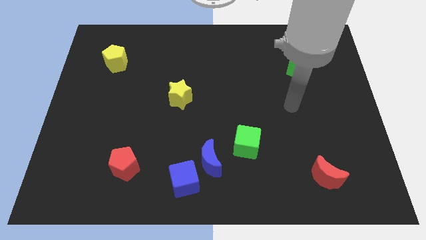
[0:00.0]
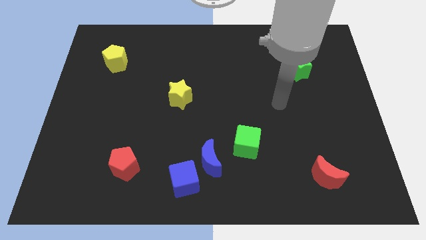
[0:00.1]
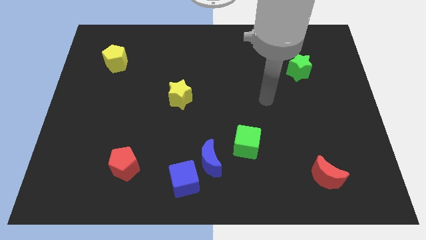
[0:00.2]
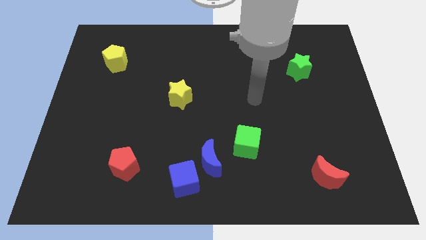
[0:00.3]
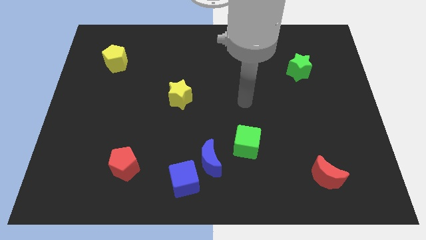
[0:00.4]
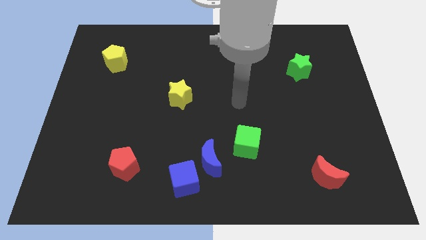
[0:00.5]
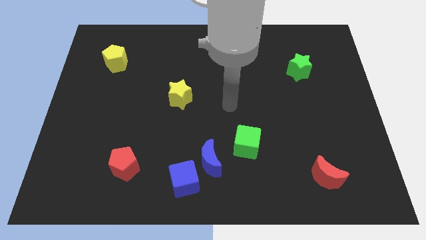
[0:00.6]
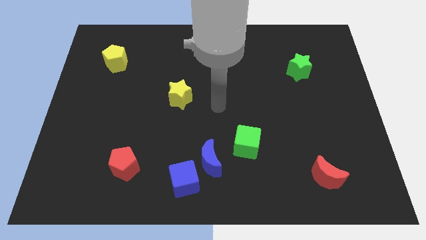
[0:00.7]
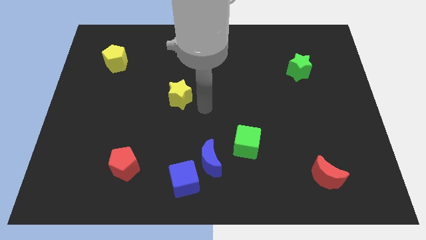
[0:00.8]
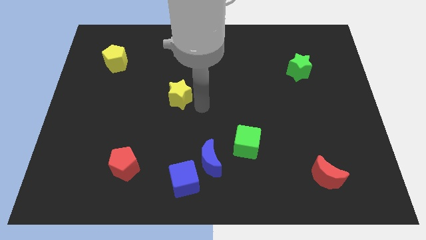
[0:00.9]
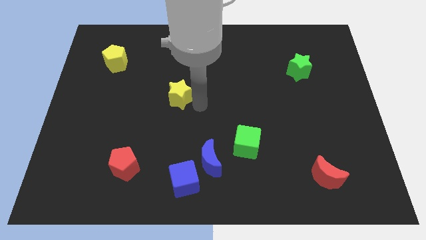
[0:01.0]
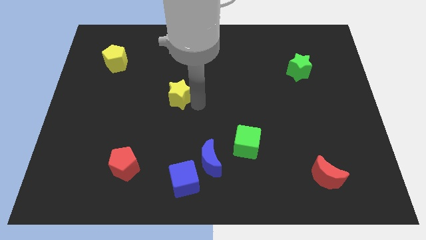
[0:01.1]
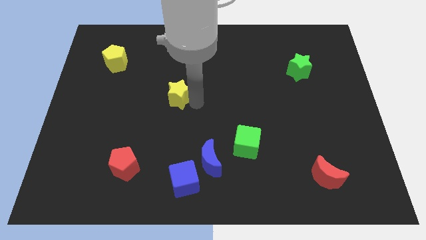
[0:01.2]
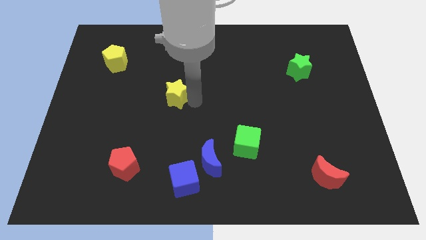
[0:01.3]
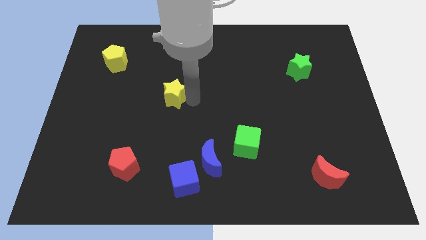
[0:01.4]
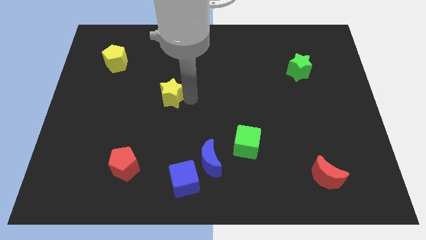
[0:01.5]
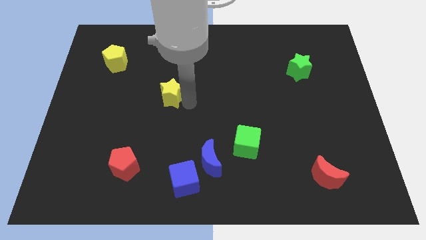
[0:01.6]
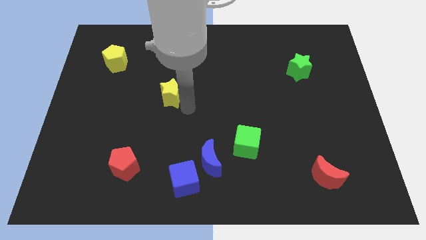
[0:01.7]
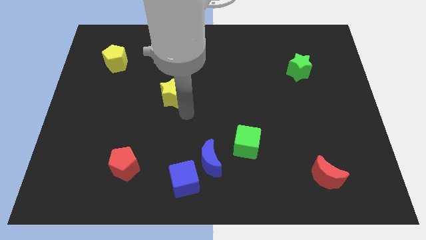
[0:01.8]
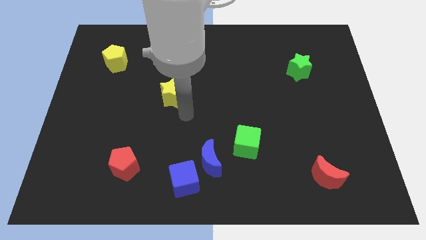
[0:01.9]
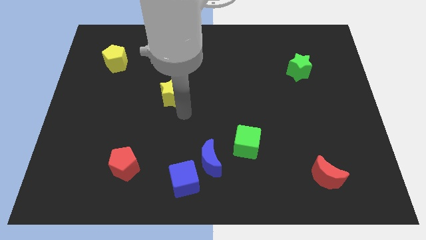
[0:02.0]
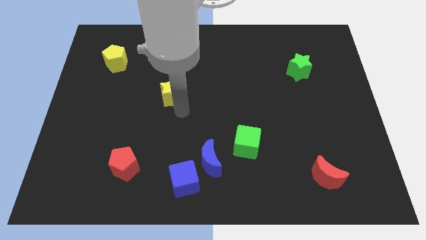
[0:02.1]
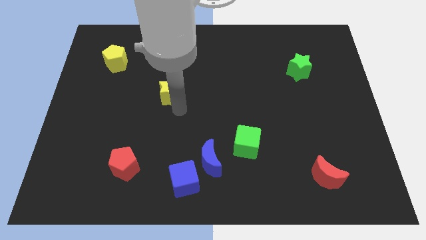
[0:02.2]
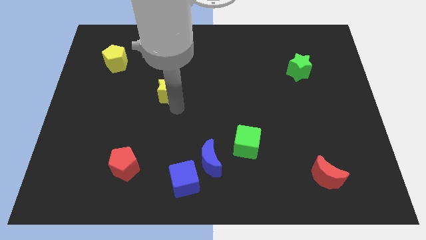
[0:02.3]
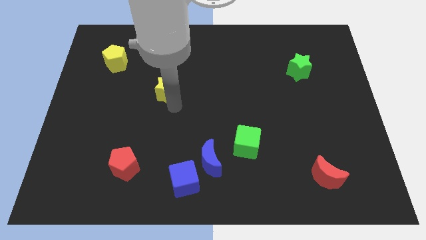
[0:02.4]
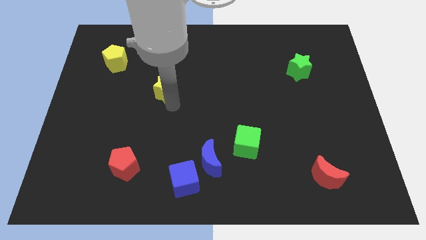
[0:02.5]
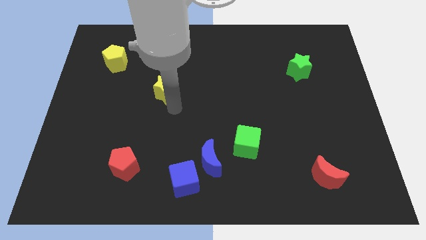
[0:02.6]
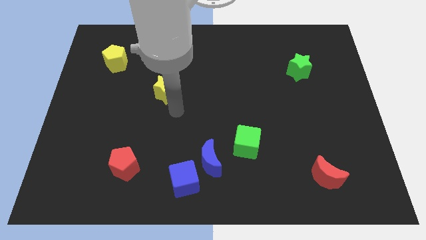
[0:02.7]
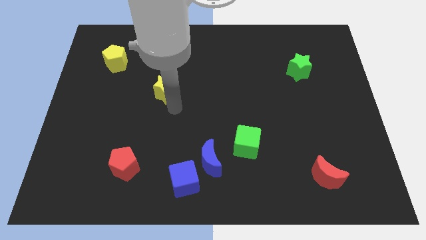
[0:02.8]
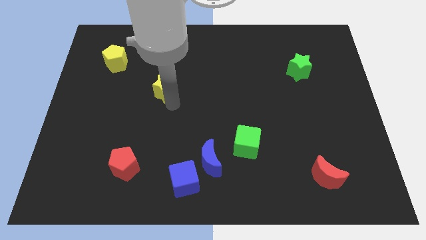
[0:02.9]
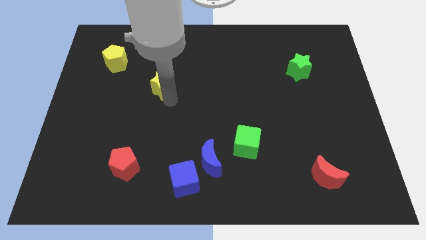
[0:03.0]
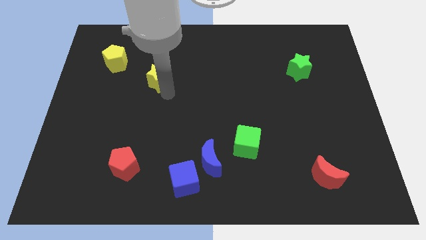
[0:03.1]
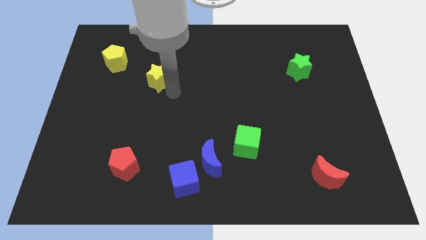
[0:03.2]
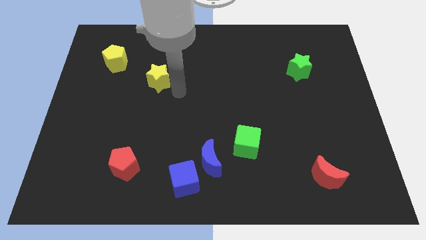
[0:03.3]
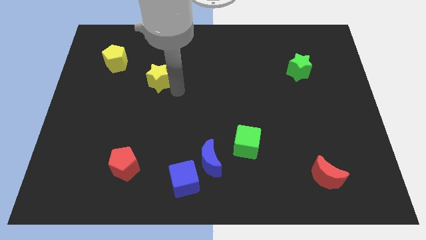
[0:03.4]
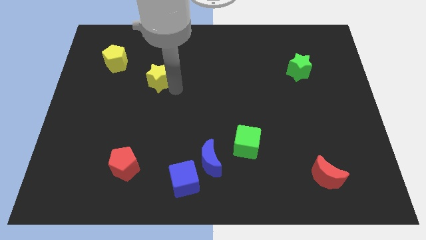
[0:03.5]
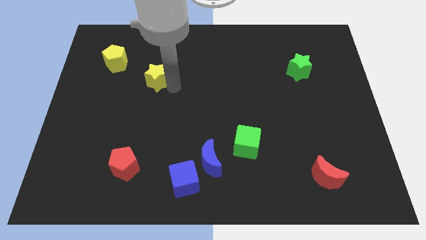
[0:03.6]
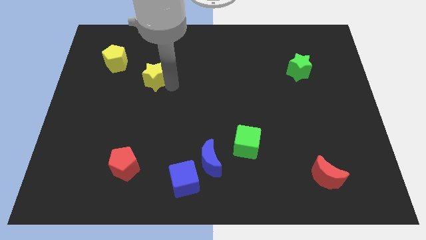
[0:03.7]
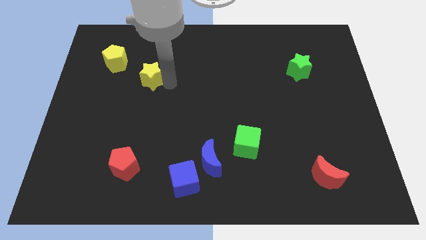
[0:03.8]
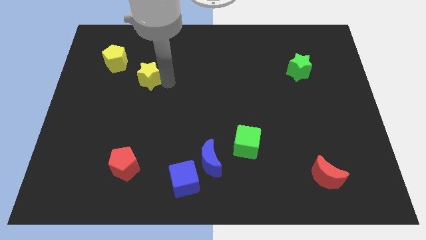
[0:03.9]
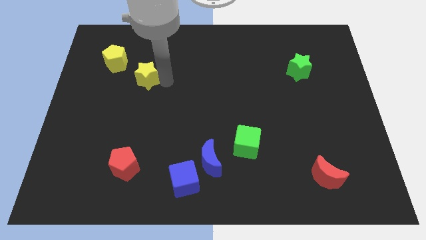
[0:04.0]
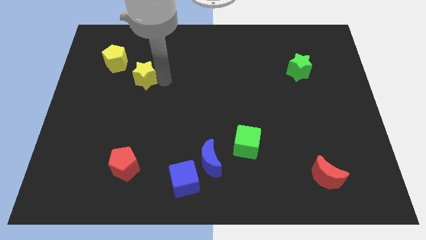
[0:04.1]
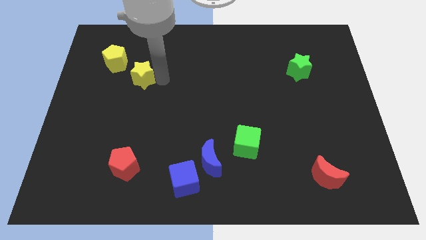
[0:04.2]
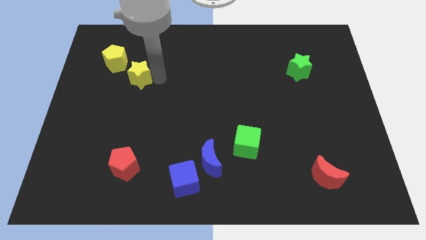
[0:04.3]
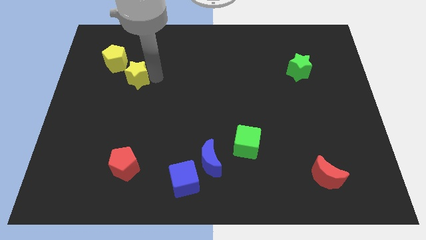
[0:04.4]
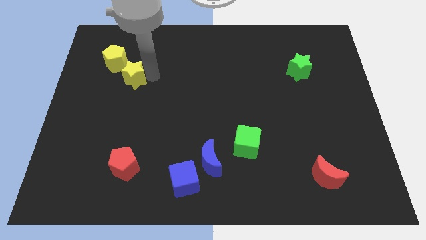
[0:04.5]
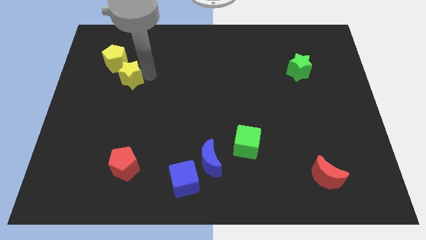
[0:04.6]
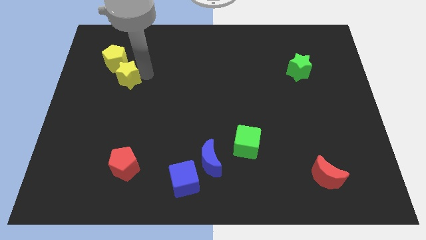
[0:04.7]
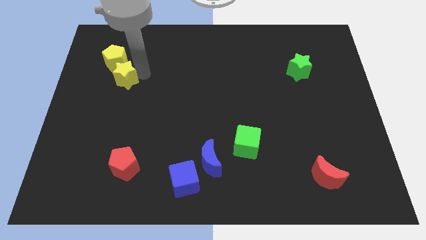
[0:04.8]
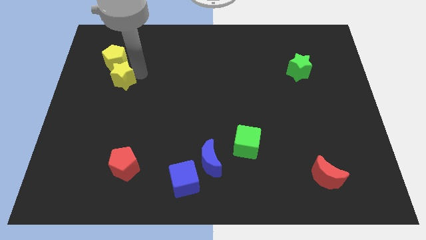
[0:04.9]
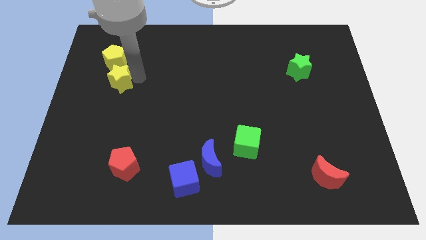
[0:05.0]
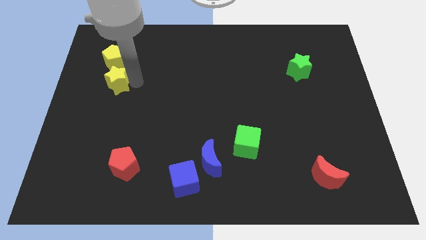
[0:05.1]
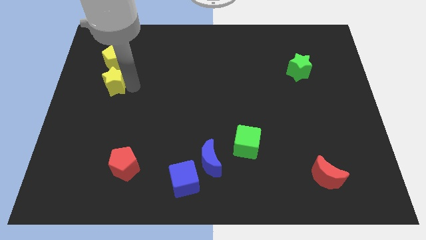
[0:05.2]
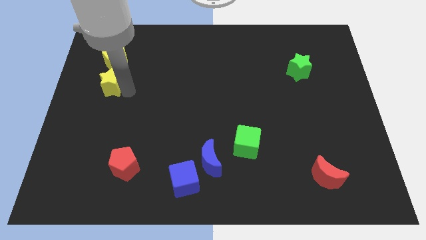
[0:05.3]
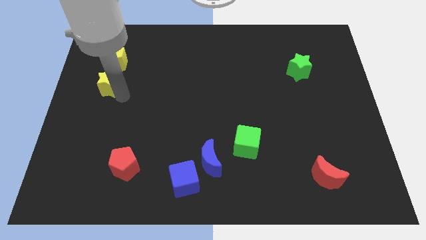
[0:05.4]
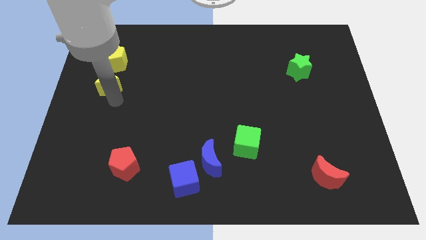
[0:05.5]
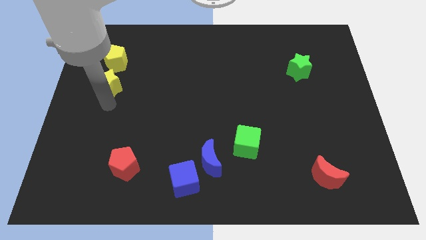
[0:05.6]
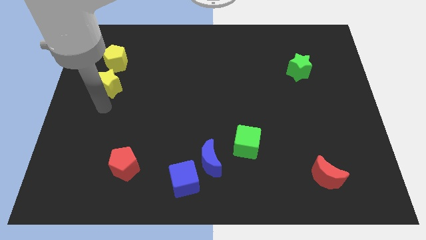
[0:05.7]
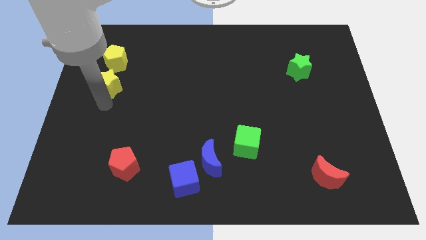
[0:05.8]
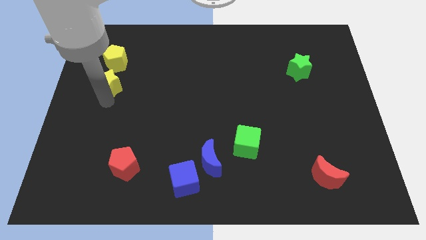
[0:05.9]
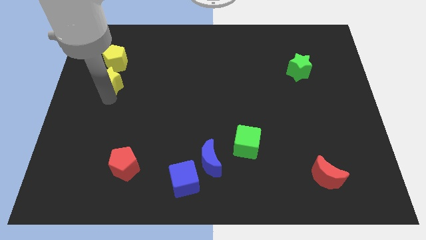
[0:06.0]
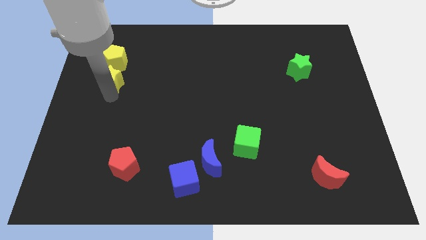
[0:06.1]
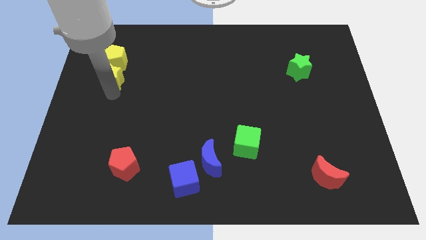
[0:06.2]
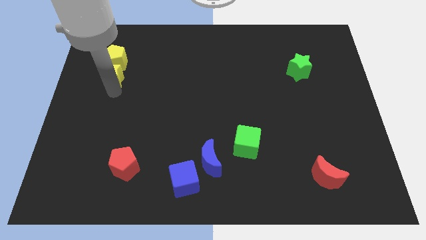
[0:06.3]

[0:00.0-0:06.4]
slide the yellow star next to the yellow pentagon

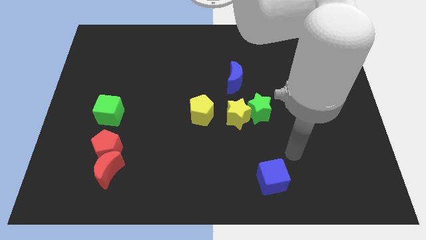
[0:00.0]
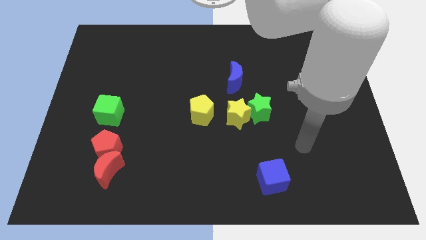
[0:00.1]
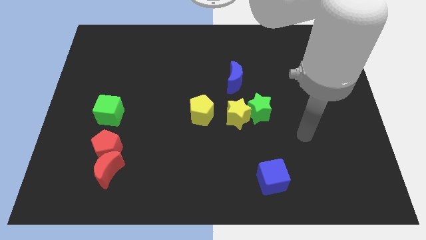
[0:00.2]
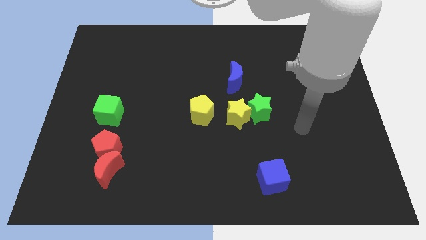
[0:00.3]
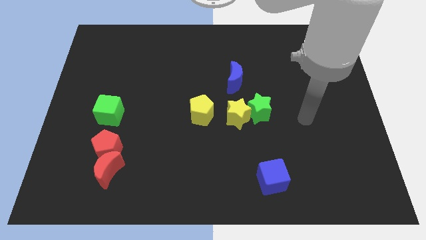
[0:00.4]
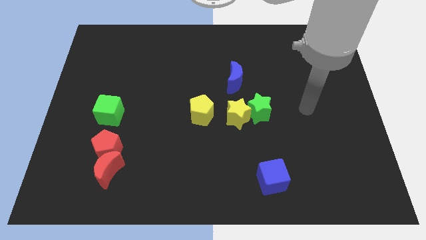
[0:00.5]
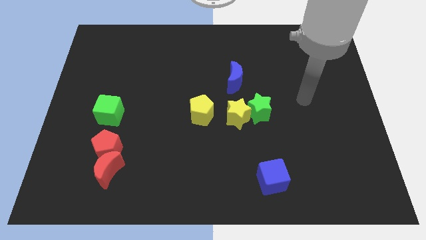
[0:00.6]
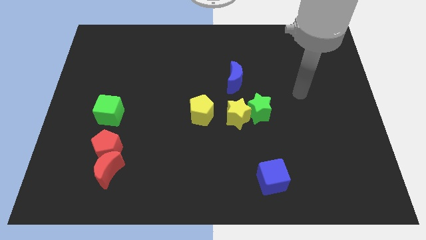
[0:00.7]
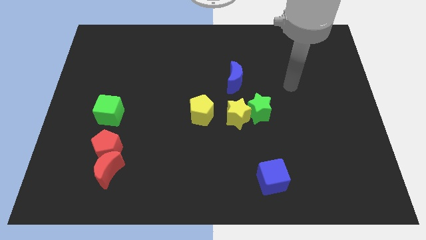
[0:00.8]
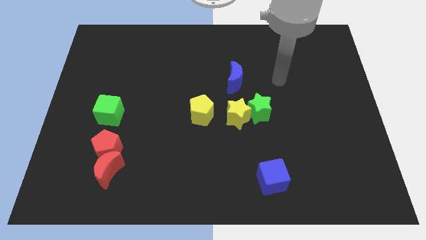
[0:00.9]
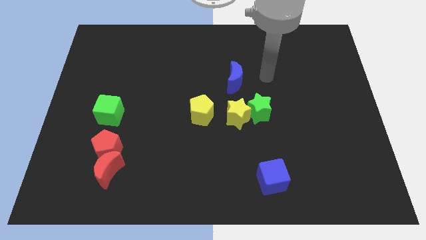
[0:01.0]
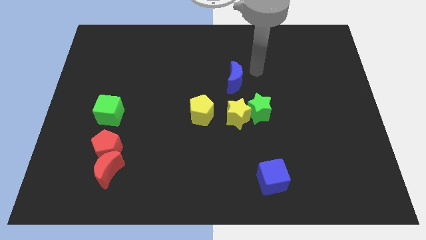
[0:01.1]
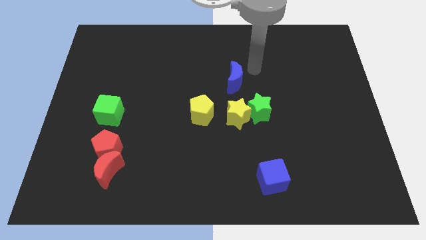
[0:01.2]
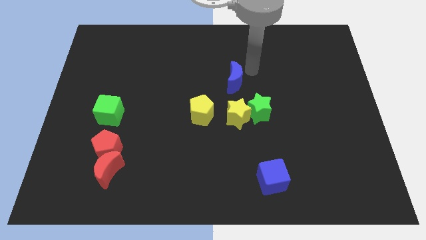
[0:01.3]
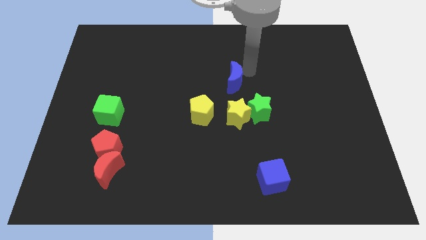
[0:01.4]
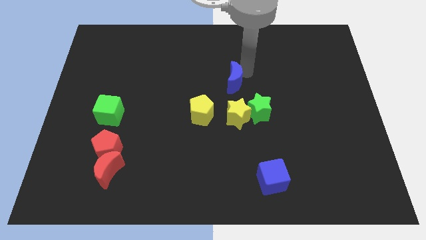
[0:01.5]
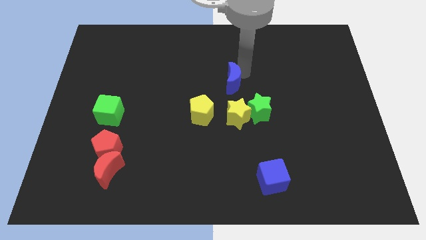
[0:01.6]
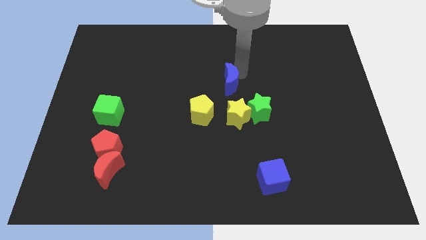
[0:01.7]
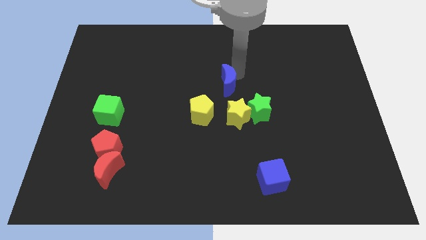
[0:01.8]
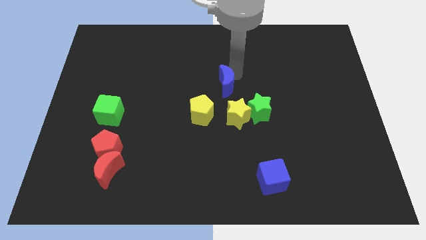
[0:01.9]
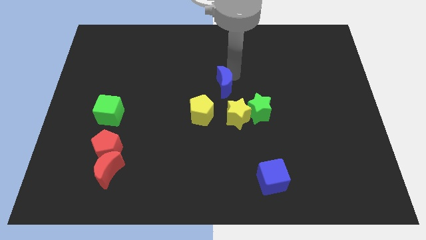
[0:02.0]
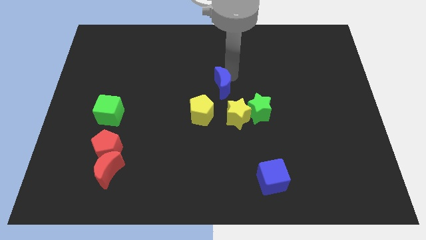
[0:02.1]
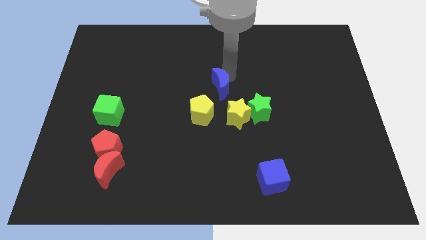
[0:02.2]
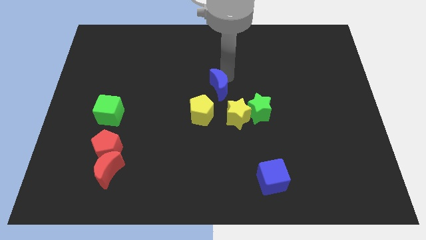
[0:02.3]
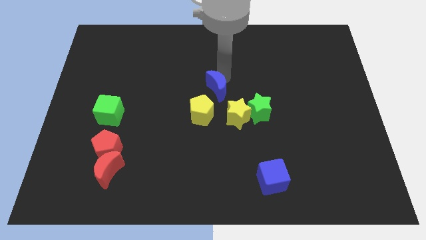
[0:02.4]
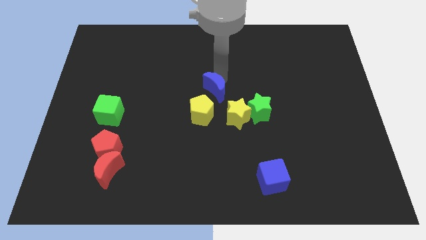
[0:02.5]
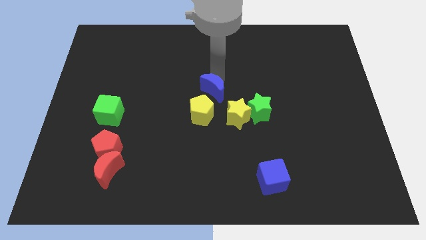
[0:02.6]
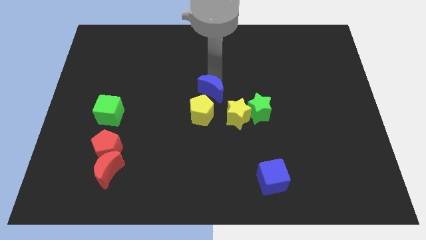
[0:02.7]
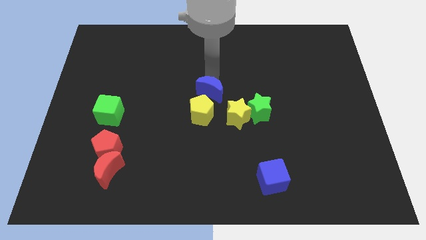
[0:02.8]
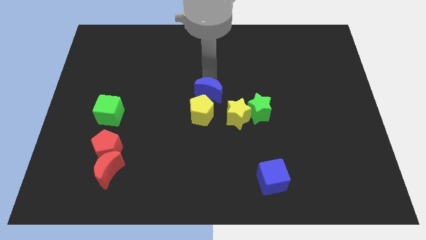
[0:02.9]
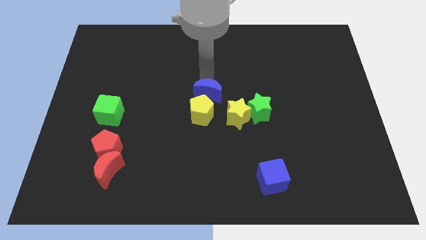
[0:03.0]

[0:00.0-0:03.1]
push the blue moon to the yellow pentagon
